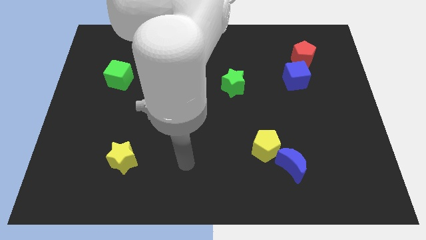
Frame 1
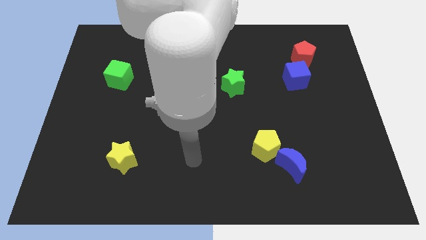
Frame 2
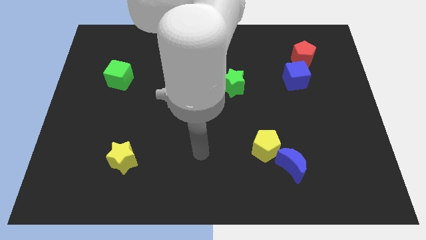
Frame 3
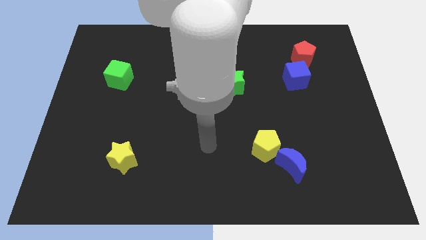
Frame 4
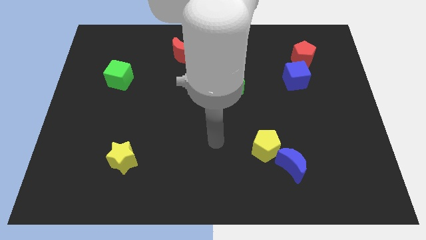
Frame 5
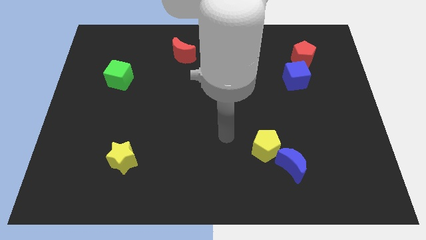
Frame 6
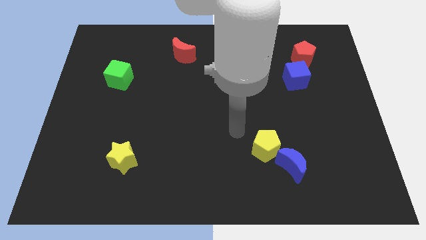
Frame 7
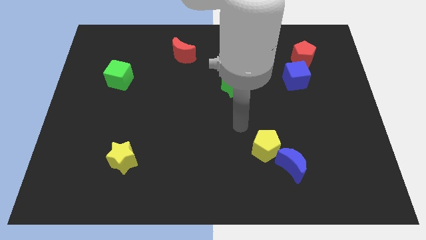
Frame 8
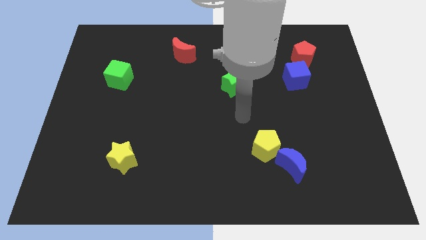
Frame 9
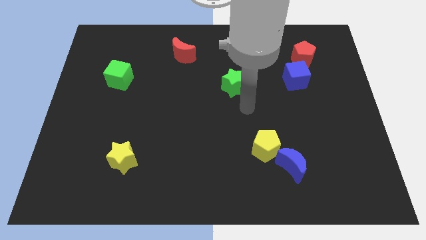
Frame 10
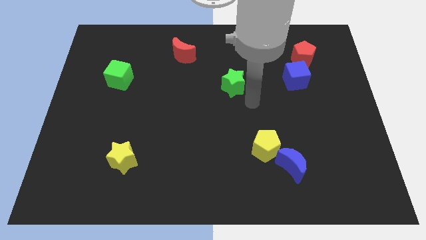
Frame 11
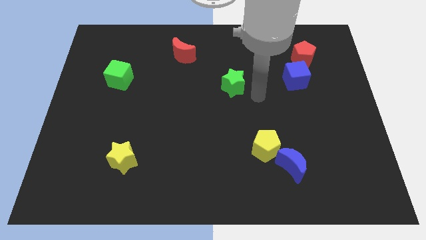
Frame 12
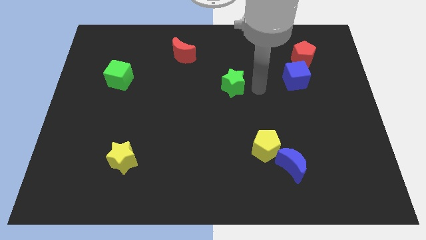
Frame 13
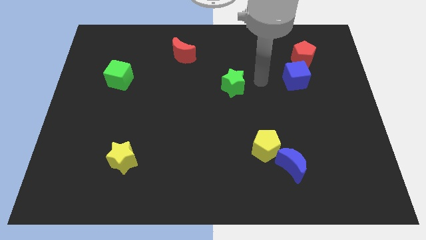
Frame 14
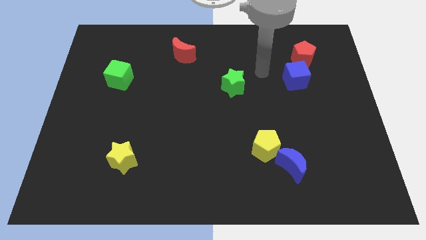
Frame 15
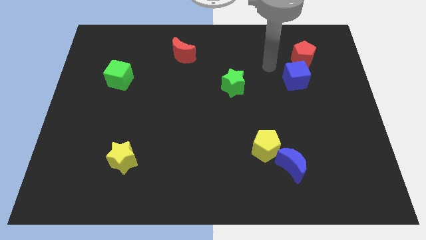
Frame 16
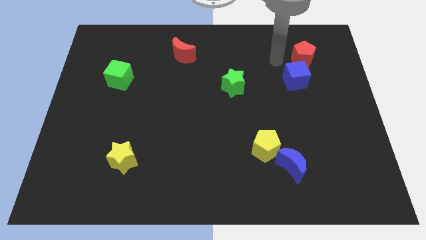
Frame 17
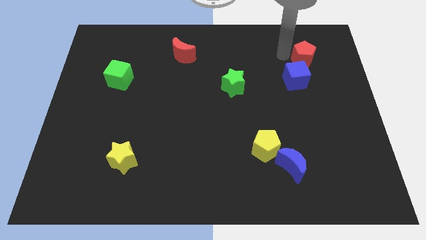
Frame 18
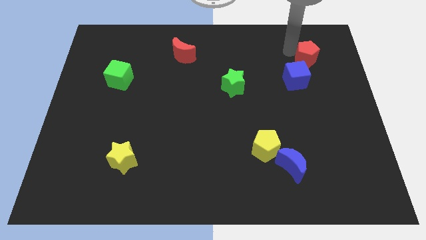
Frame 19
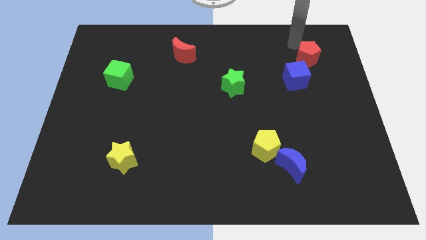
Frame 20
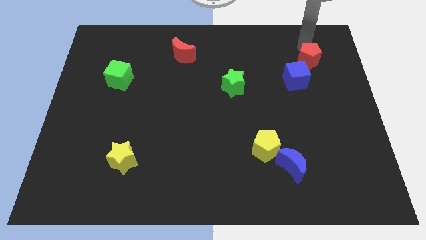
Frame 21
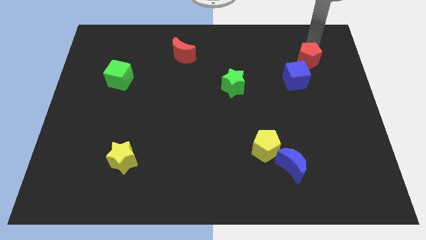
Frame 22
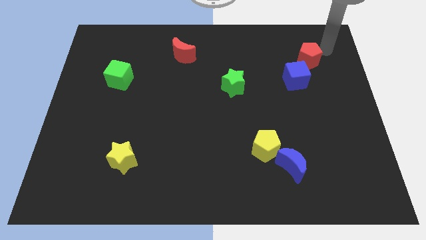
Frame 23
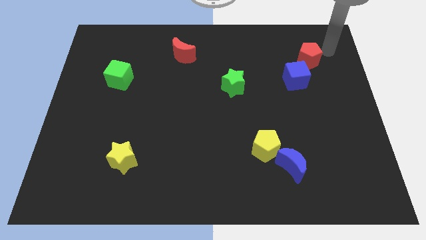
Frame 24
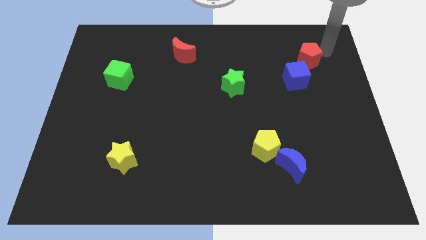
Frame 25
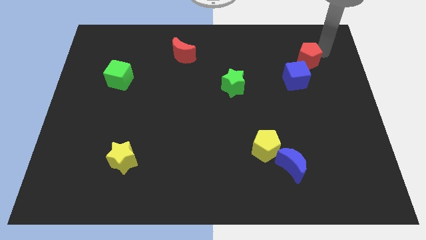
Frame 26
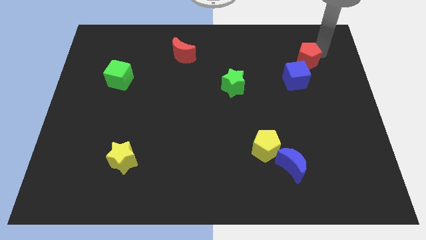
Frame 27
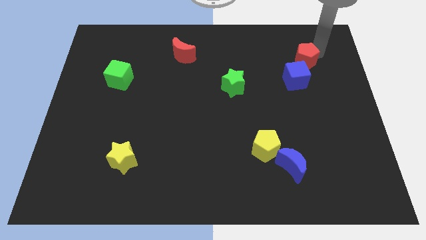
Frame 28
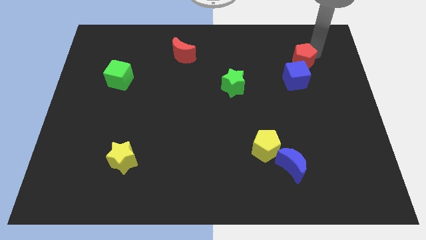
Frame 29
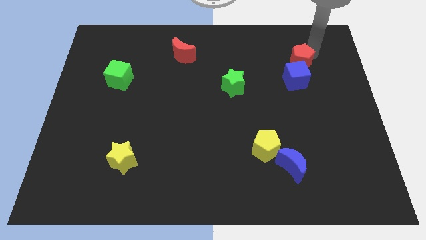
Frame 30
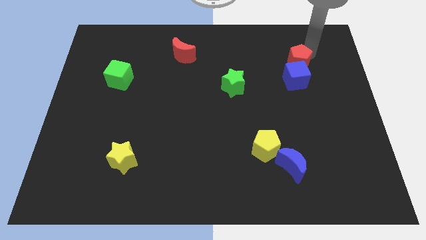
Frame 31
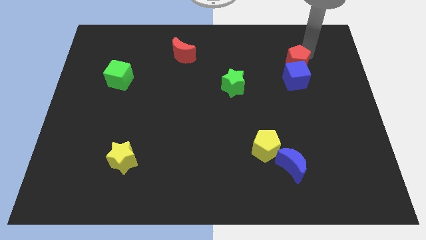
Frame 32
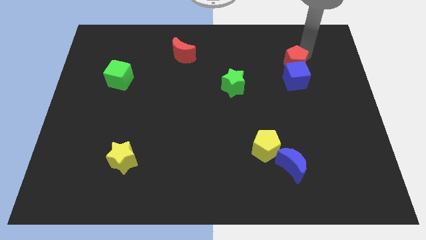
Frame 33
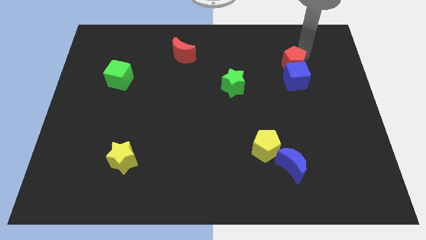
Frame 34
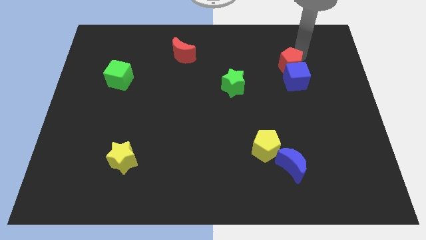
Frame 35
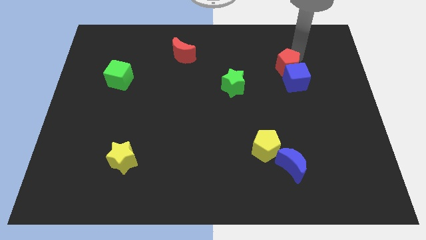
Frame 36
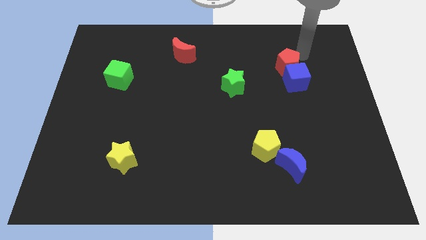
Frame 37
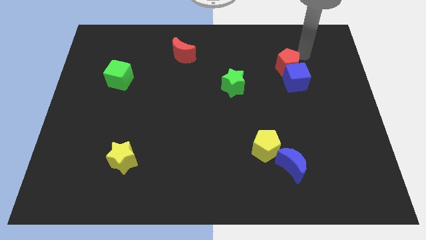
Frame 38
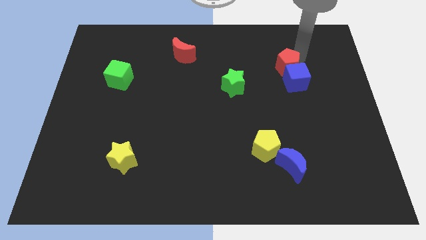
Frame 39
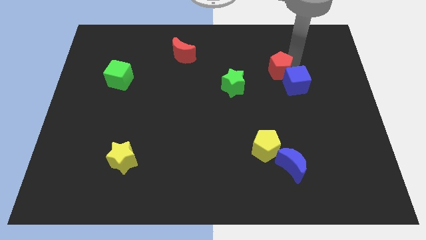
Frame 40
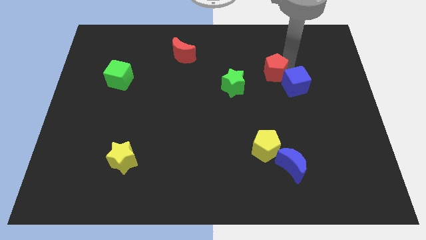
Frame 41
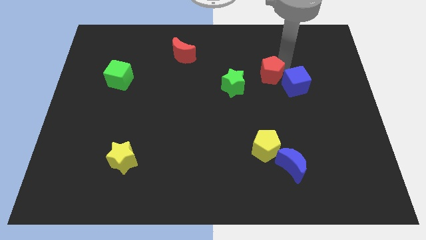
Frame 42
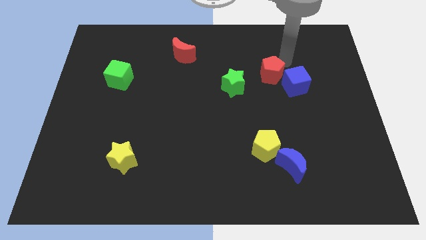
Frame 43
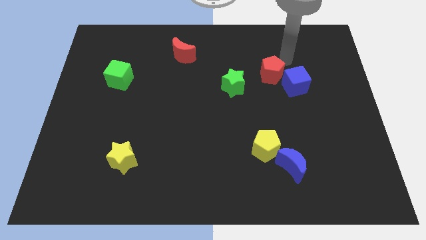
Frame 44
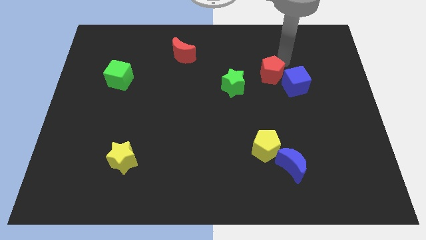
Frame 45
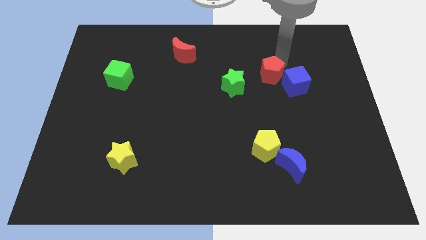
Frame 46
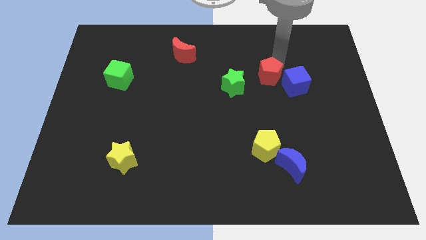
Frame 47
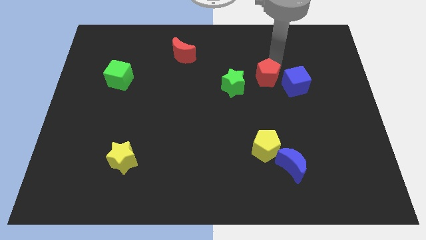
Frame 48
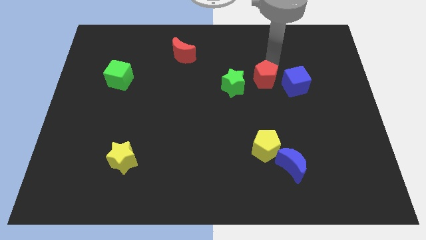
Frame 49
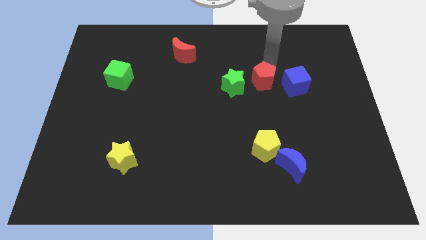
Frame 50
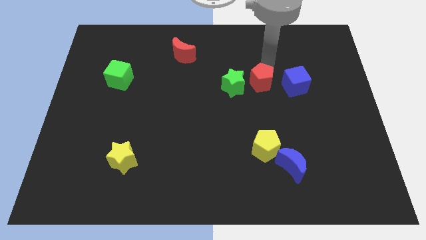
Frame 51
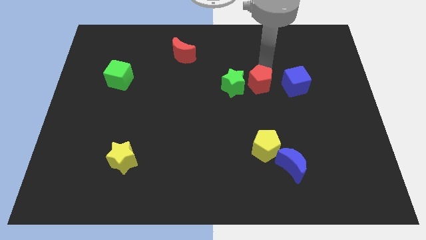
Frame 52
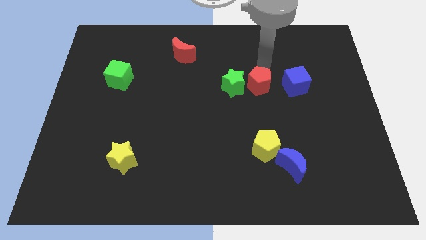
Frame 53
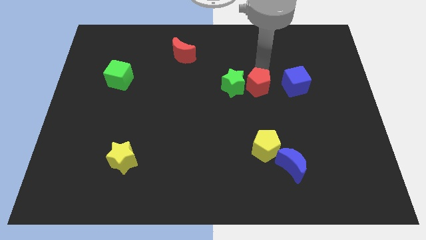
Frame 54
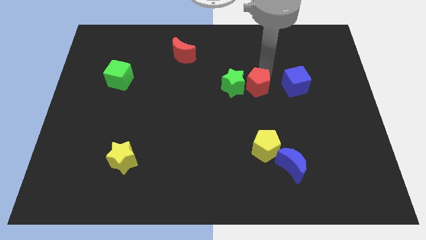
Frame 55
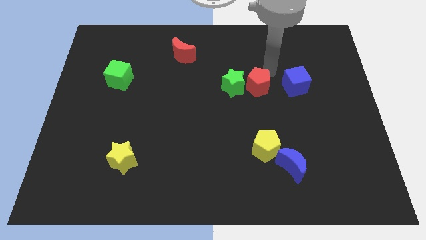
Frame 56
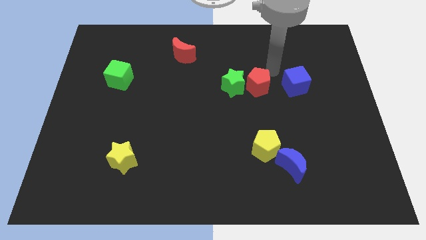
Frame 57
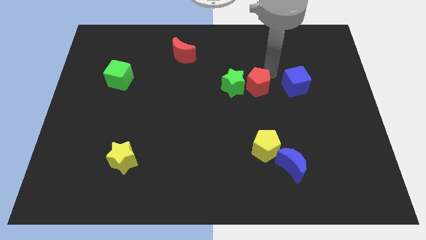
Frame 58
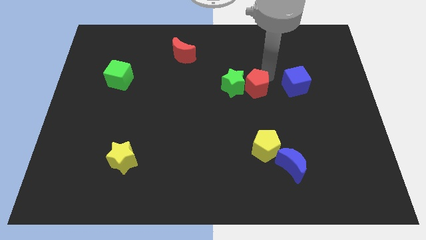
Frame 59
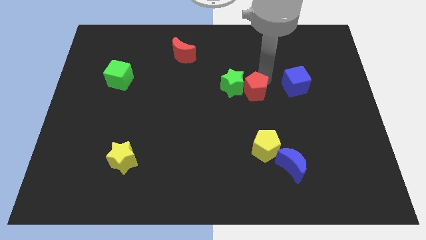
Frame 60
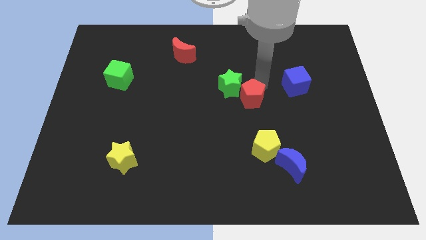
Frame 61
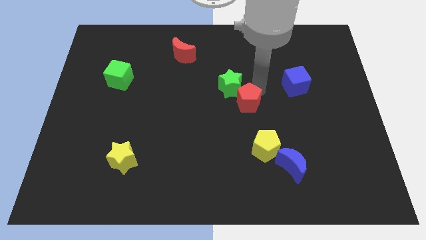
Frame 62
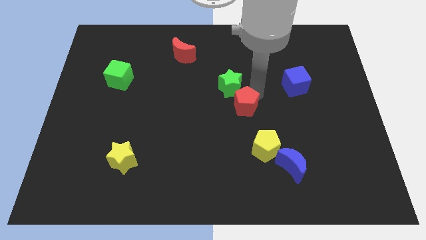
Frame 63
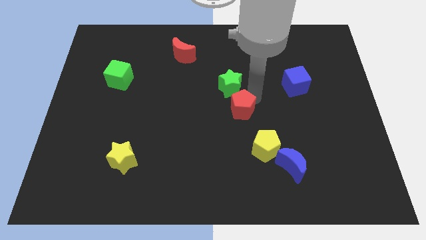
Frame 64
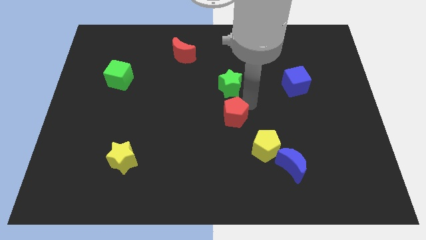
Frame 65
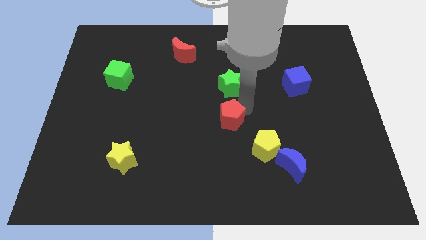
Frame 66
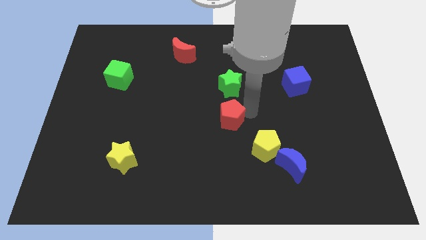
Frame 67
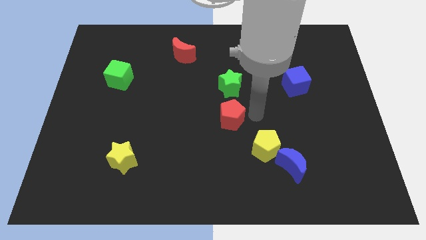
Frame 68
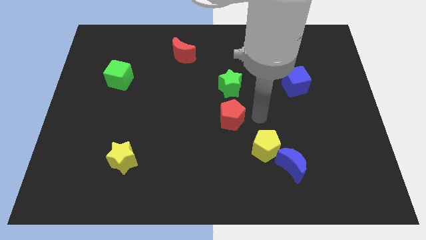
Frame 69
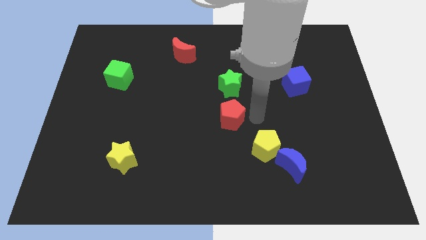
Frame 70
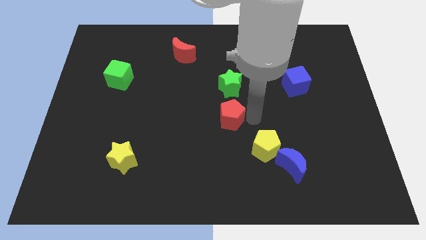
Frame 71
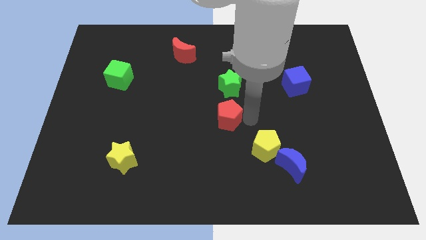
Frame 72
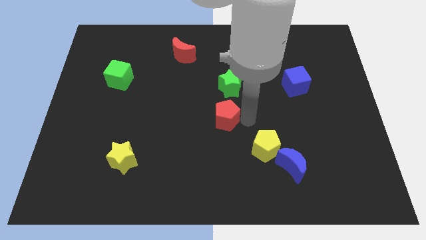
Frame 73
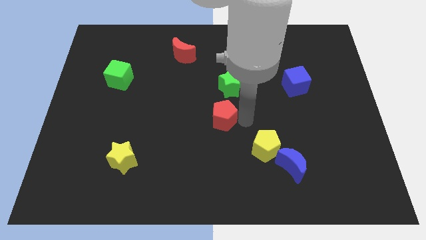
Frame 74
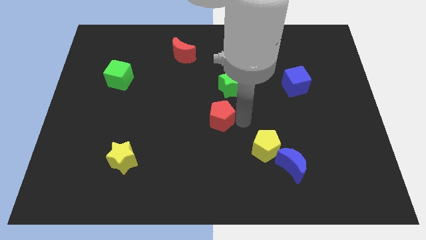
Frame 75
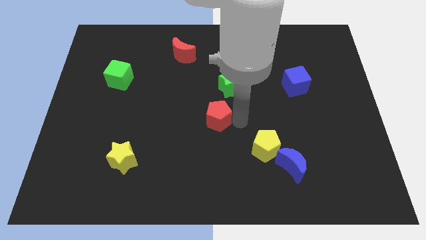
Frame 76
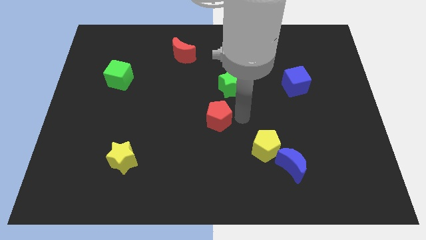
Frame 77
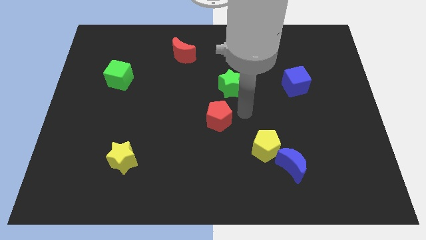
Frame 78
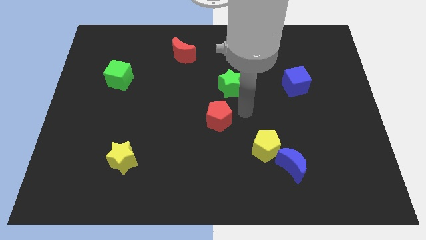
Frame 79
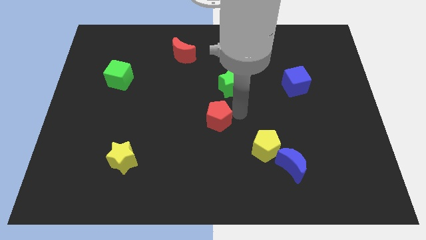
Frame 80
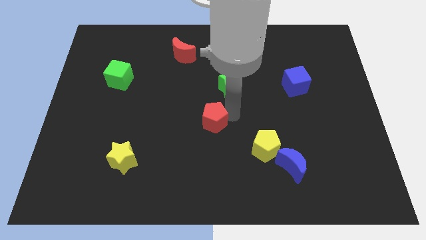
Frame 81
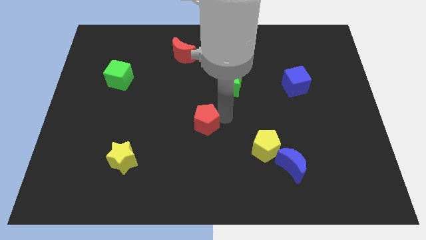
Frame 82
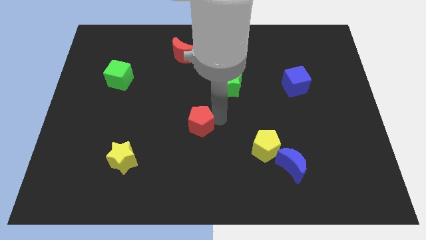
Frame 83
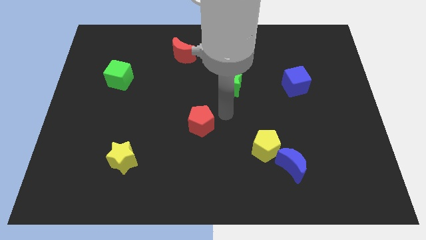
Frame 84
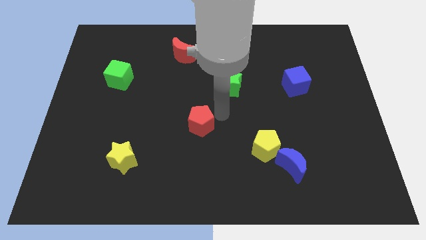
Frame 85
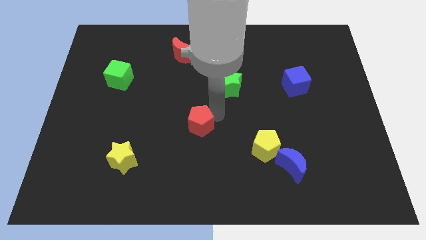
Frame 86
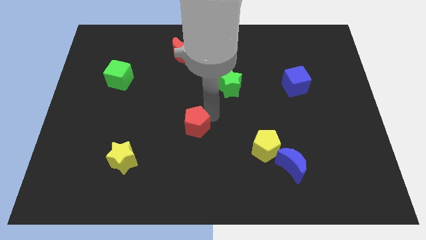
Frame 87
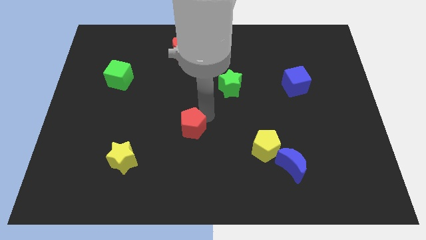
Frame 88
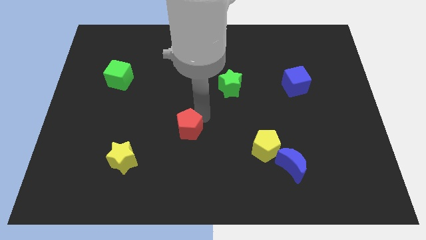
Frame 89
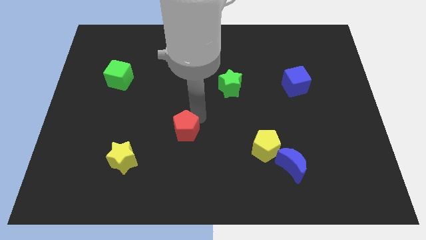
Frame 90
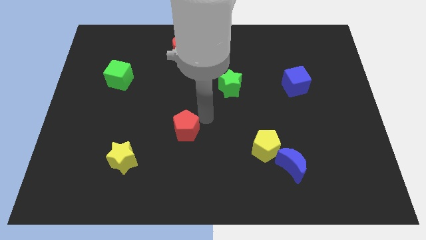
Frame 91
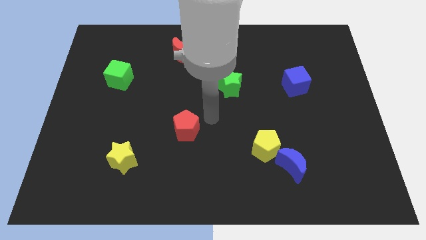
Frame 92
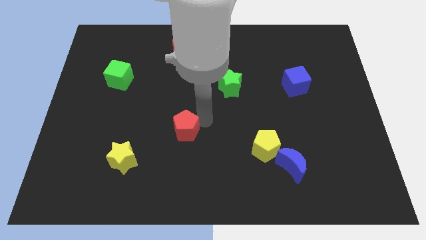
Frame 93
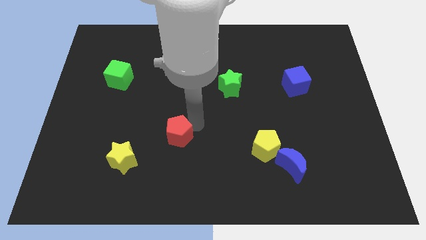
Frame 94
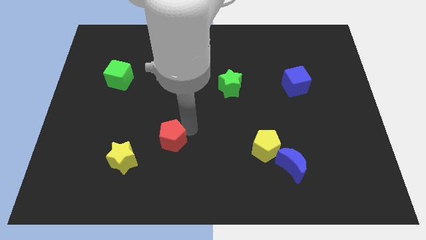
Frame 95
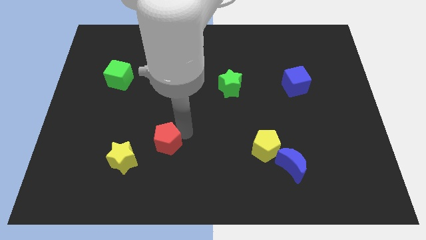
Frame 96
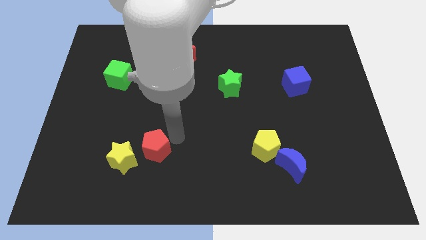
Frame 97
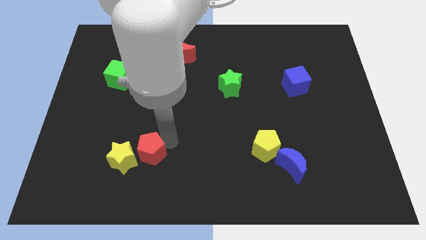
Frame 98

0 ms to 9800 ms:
push the red pentagon next to the yellow star
